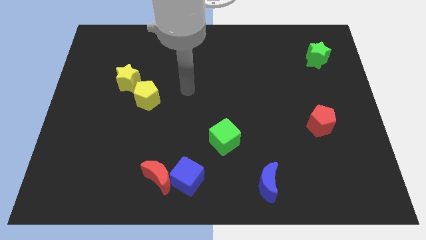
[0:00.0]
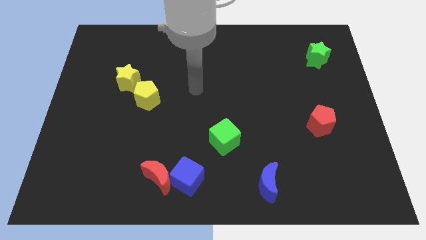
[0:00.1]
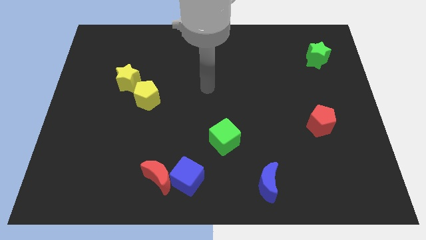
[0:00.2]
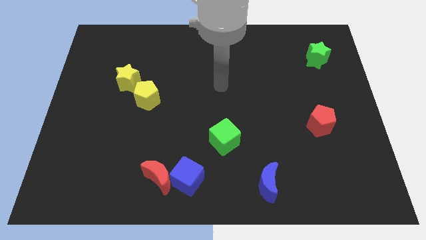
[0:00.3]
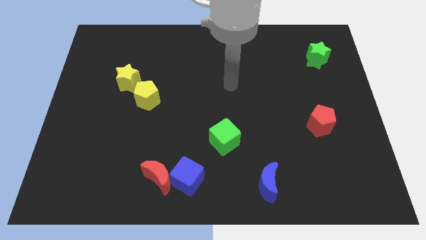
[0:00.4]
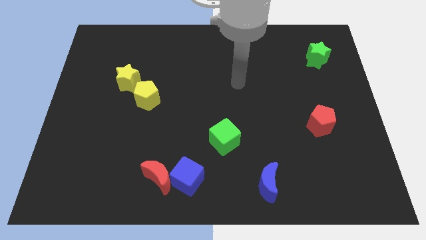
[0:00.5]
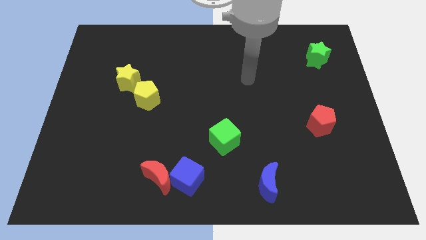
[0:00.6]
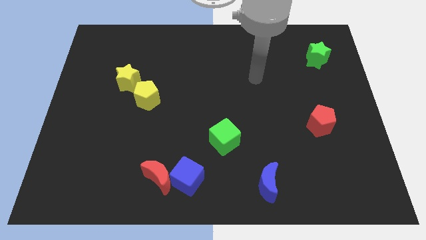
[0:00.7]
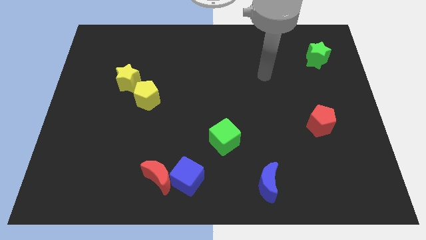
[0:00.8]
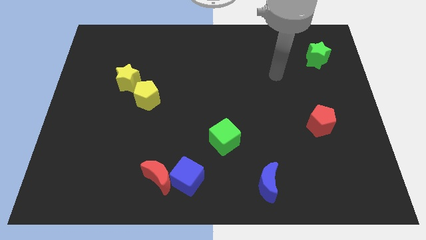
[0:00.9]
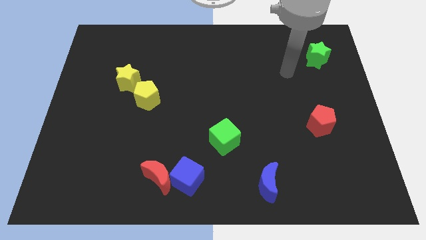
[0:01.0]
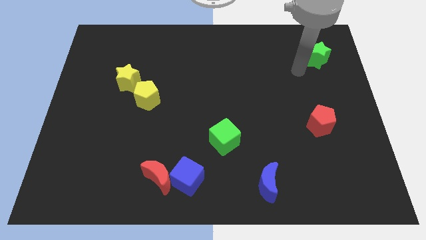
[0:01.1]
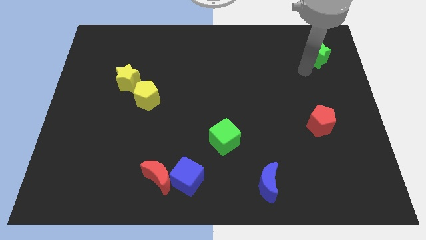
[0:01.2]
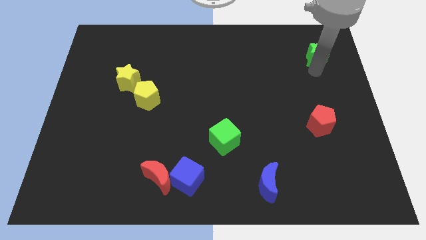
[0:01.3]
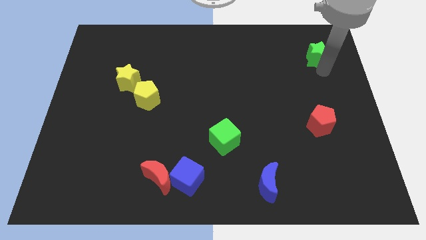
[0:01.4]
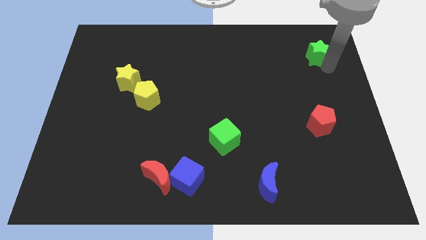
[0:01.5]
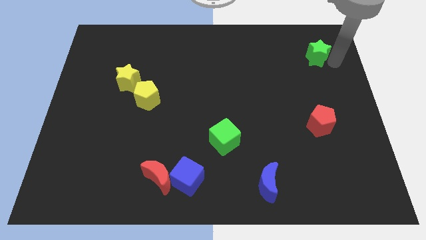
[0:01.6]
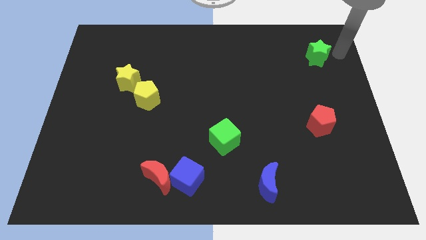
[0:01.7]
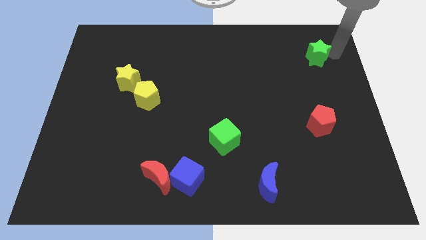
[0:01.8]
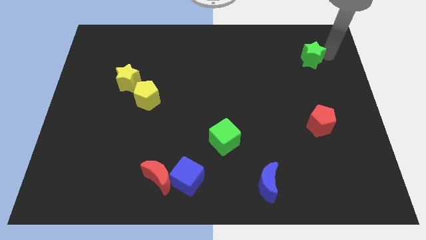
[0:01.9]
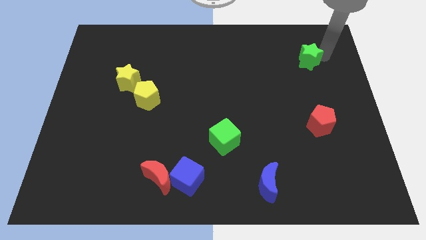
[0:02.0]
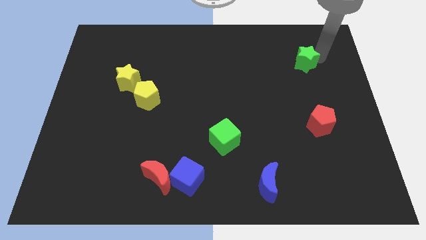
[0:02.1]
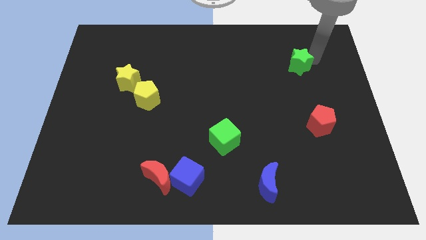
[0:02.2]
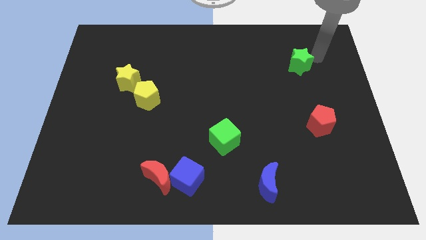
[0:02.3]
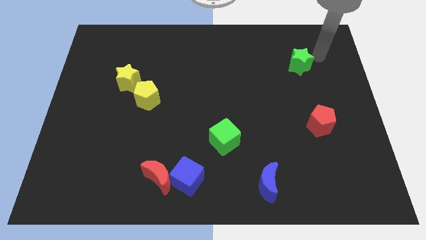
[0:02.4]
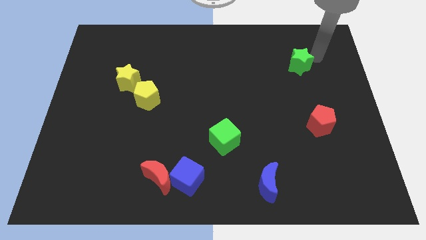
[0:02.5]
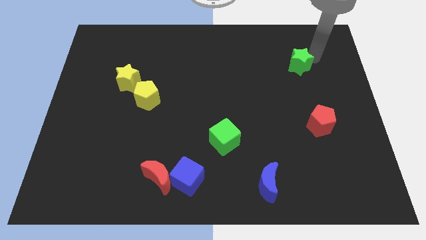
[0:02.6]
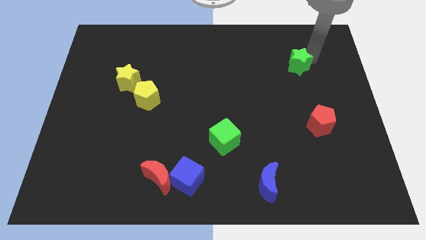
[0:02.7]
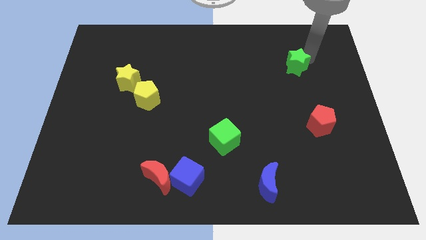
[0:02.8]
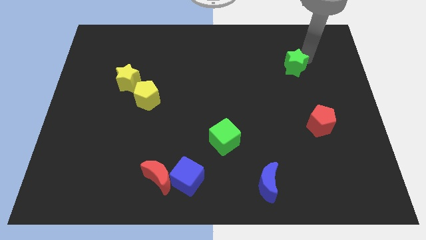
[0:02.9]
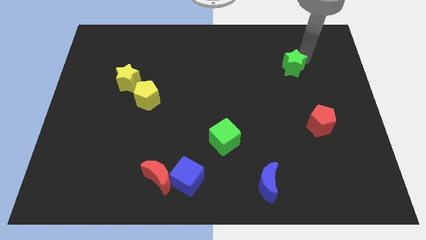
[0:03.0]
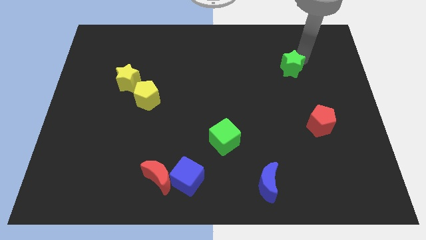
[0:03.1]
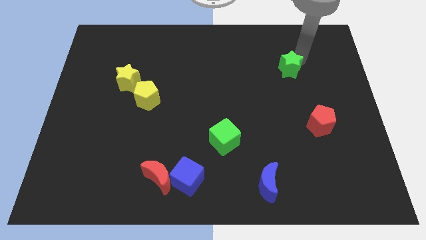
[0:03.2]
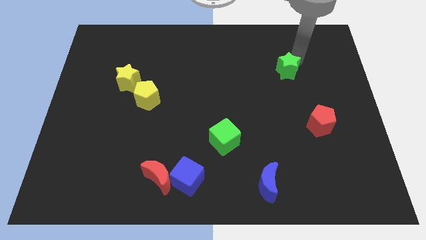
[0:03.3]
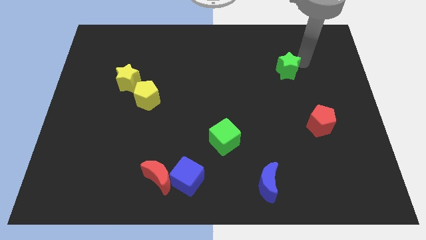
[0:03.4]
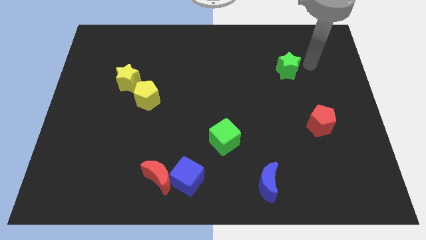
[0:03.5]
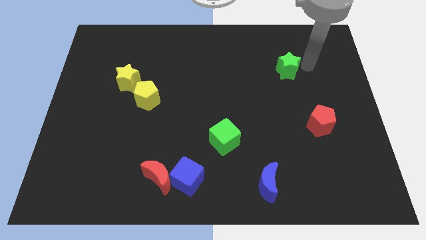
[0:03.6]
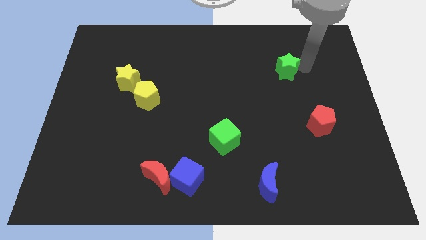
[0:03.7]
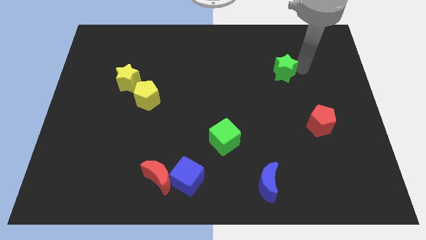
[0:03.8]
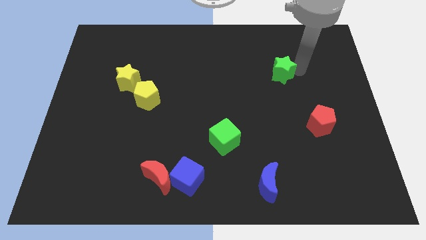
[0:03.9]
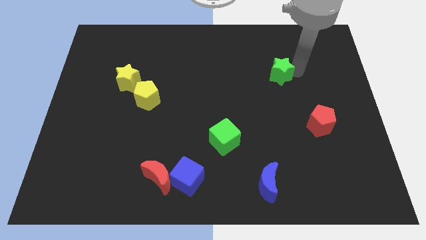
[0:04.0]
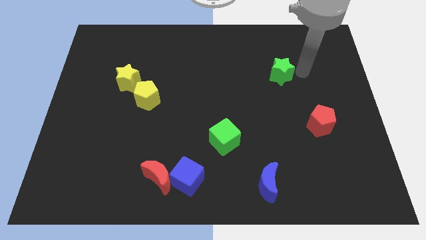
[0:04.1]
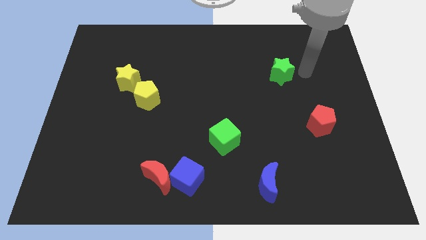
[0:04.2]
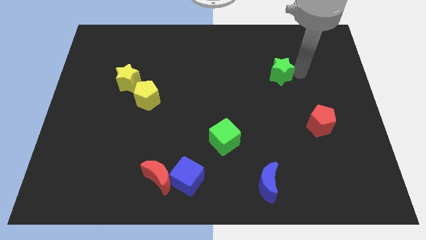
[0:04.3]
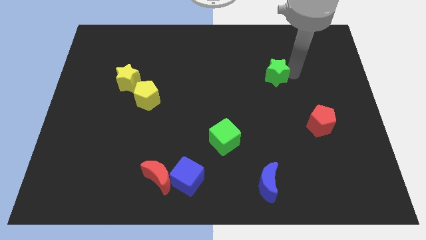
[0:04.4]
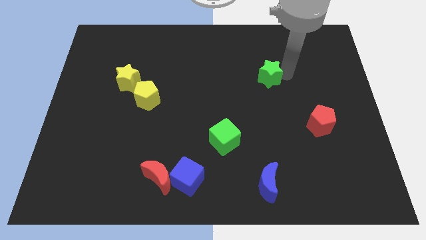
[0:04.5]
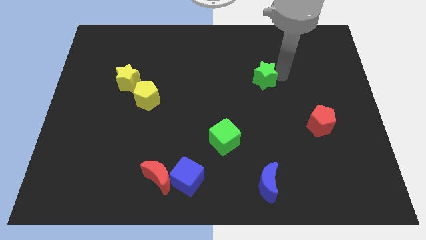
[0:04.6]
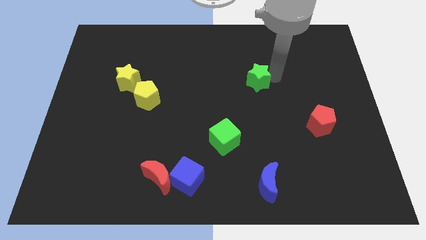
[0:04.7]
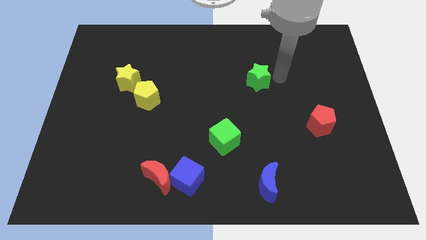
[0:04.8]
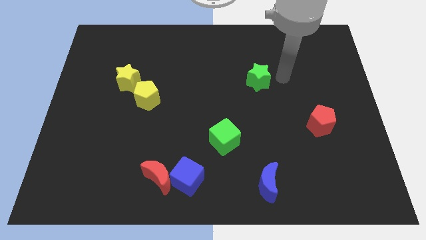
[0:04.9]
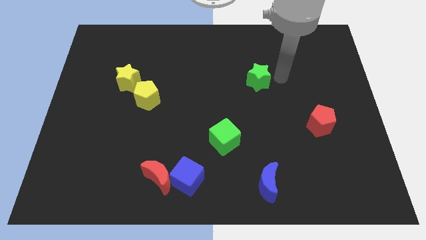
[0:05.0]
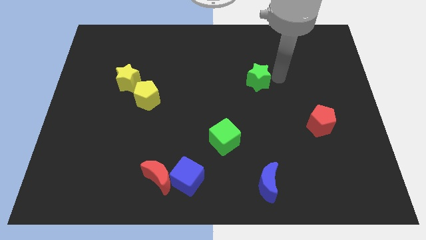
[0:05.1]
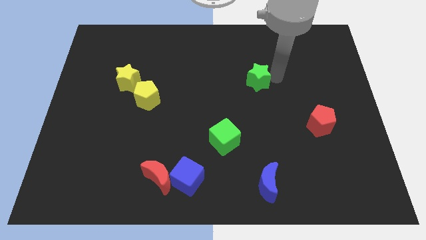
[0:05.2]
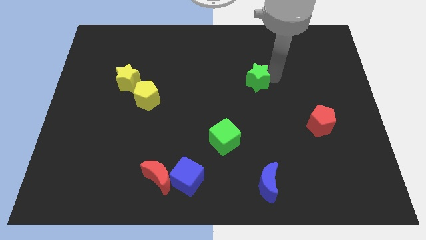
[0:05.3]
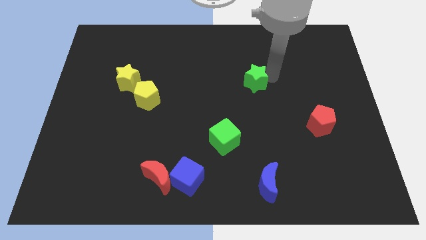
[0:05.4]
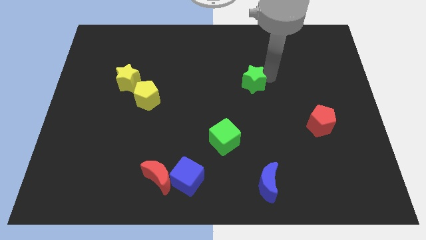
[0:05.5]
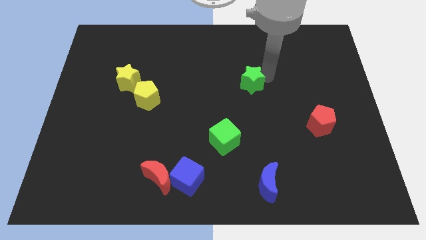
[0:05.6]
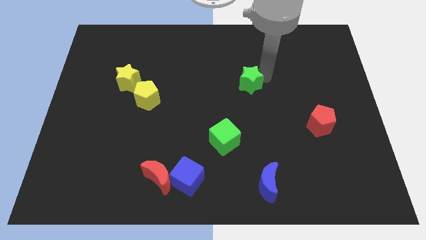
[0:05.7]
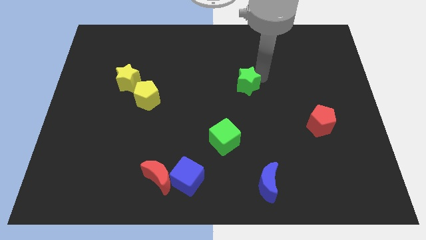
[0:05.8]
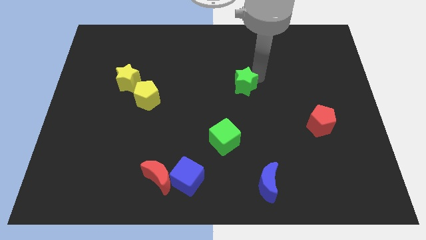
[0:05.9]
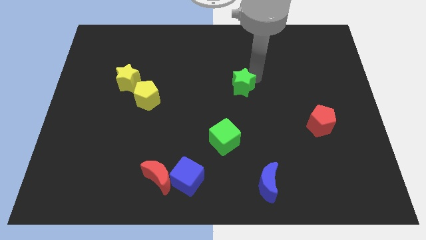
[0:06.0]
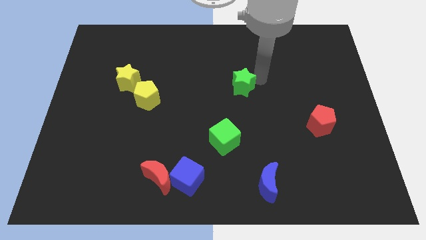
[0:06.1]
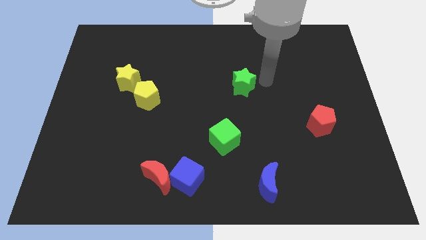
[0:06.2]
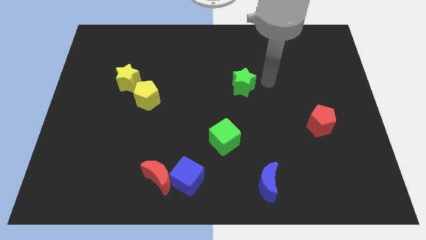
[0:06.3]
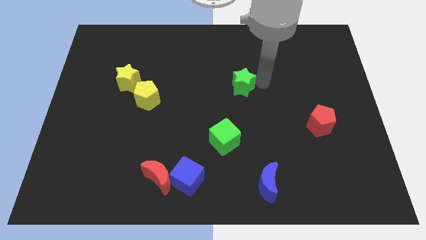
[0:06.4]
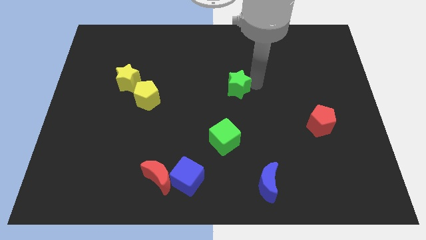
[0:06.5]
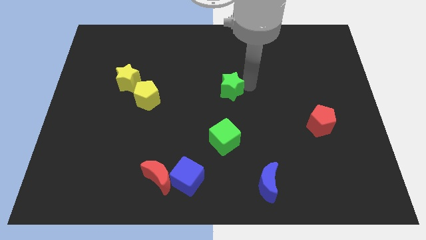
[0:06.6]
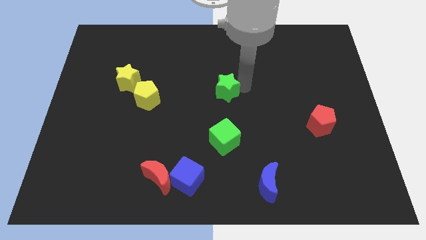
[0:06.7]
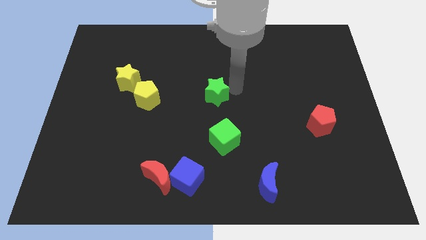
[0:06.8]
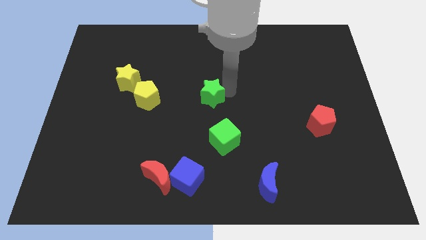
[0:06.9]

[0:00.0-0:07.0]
push the green star right of the yellow pentagon
